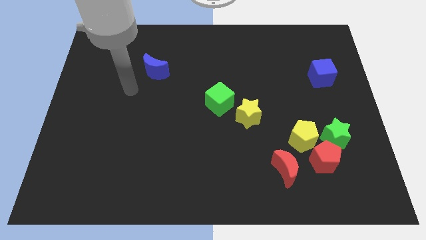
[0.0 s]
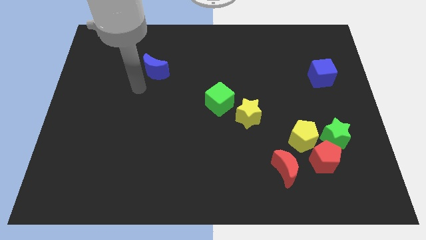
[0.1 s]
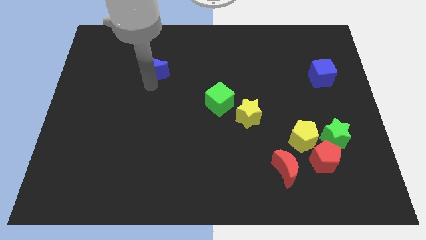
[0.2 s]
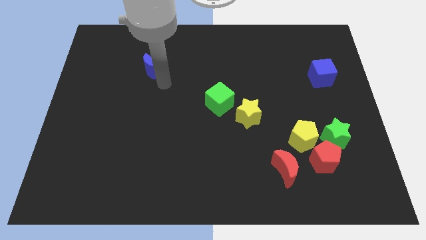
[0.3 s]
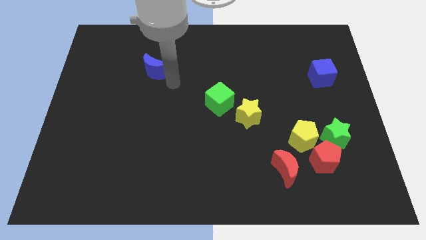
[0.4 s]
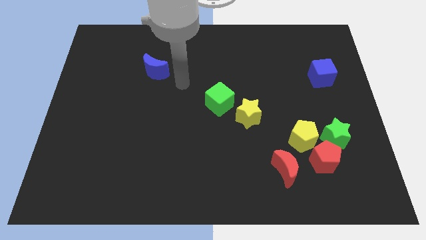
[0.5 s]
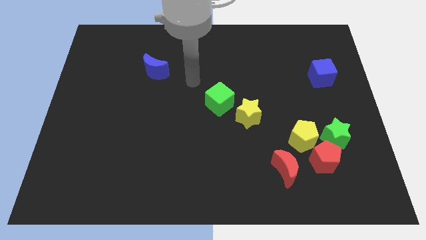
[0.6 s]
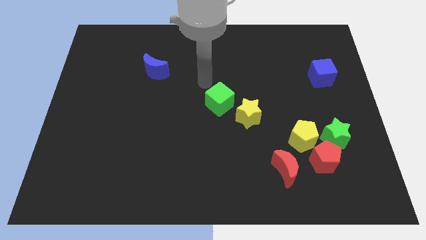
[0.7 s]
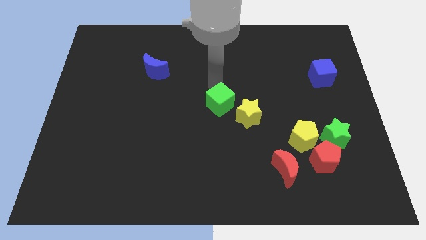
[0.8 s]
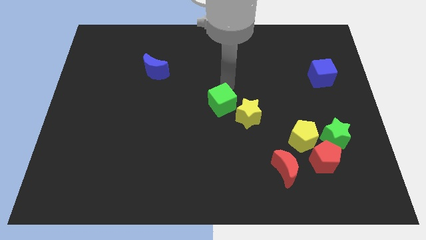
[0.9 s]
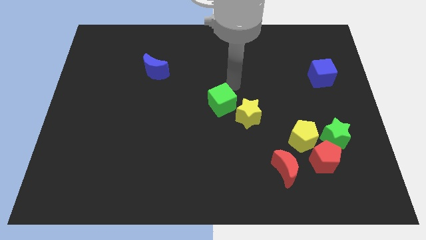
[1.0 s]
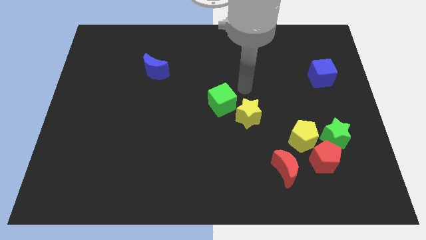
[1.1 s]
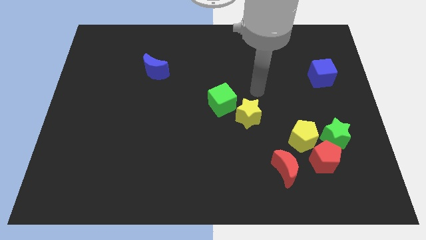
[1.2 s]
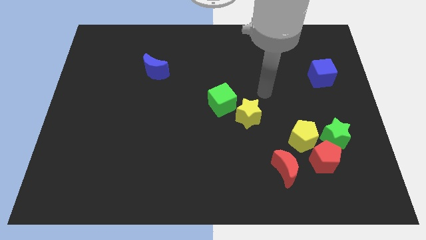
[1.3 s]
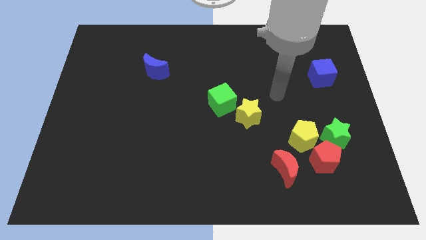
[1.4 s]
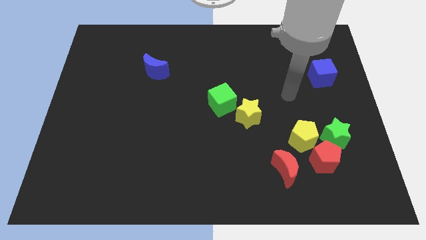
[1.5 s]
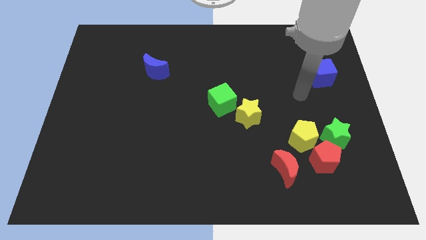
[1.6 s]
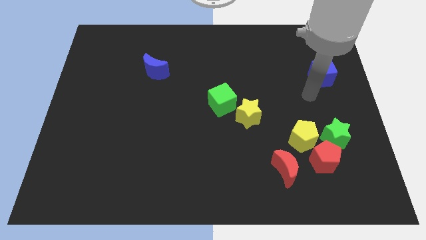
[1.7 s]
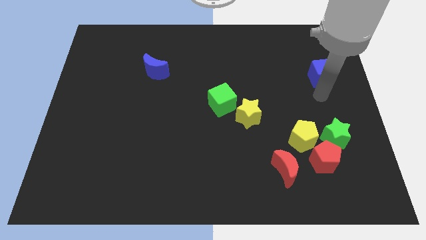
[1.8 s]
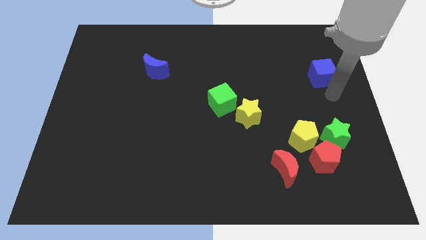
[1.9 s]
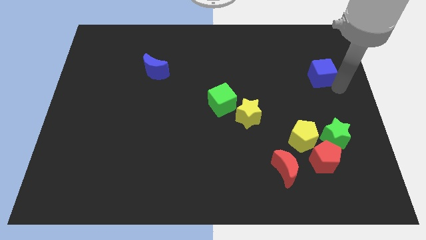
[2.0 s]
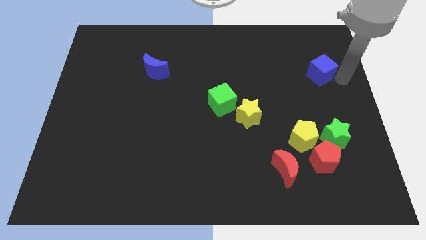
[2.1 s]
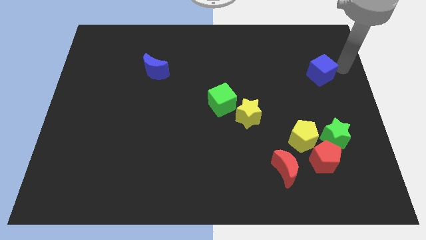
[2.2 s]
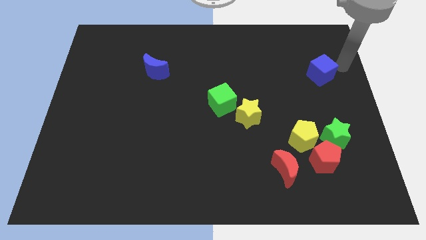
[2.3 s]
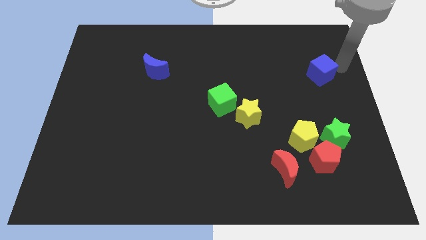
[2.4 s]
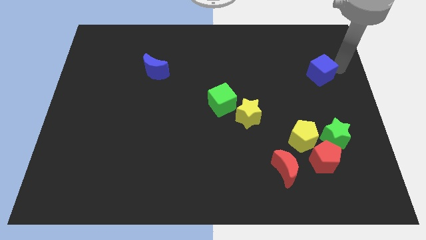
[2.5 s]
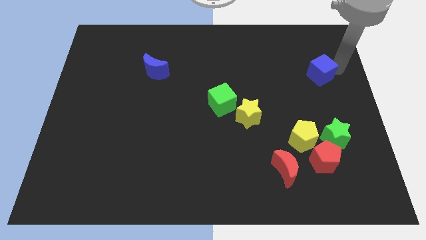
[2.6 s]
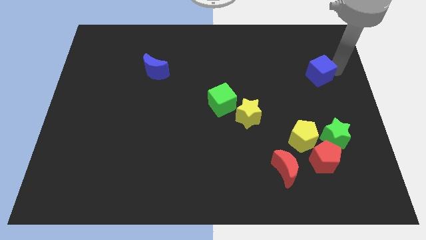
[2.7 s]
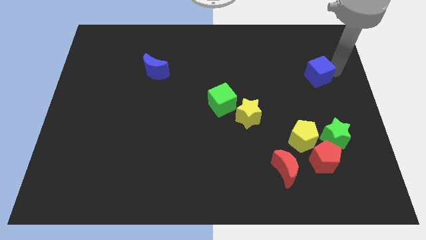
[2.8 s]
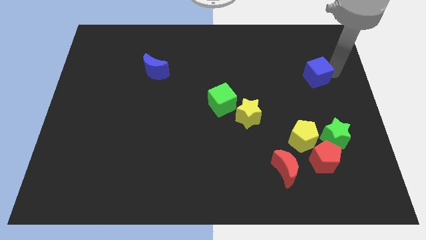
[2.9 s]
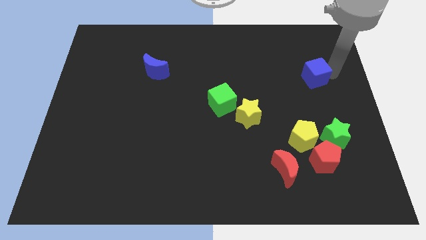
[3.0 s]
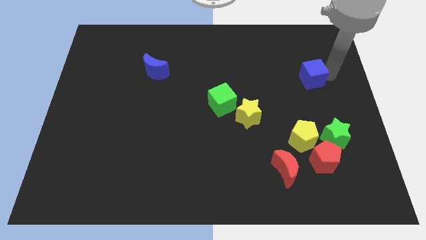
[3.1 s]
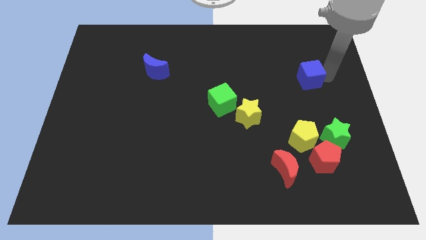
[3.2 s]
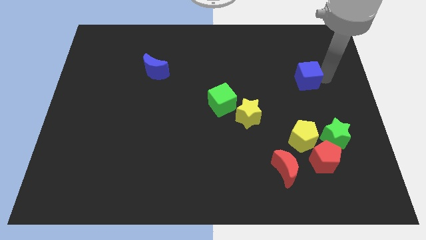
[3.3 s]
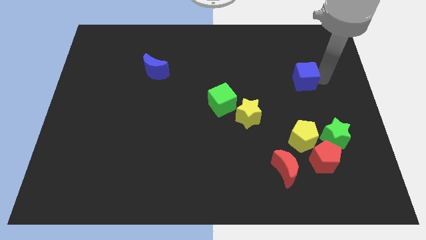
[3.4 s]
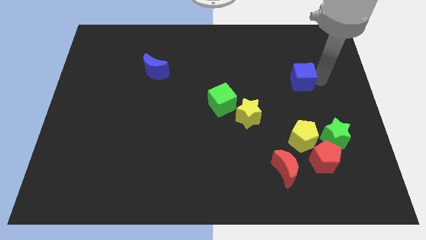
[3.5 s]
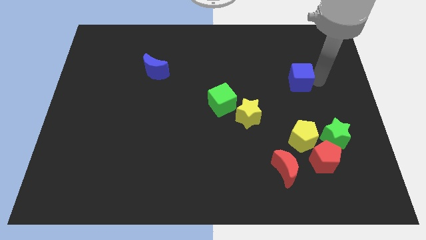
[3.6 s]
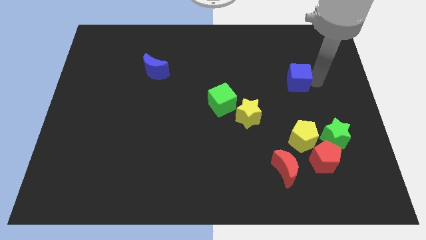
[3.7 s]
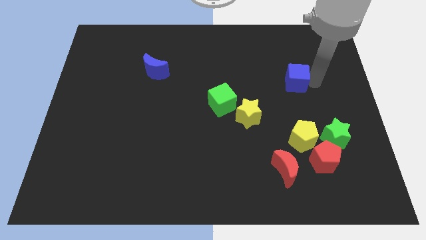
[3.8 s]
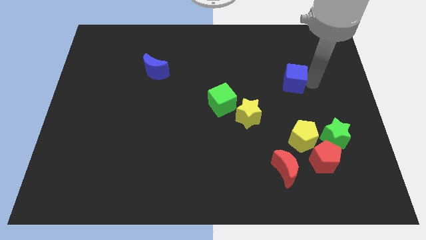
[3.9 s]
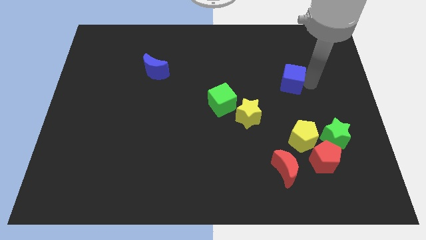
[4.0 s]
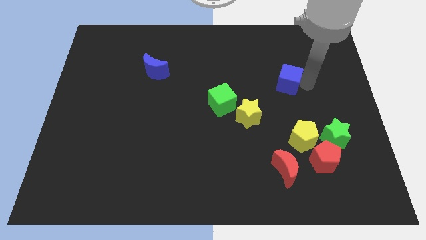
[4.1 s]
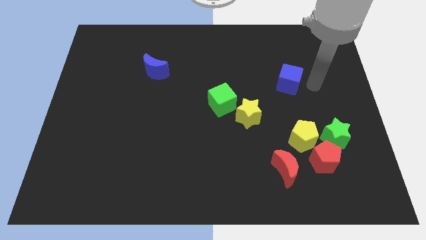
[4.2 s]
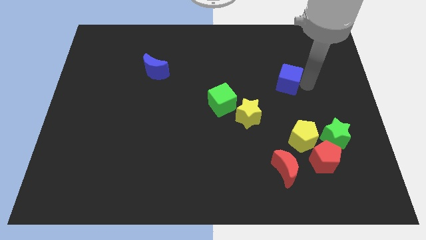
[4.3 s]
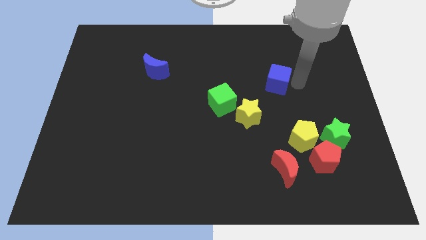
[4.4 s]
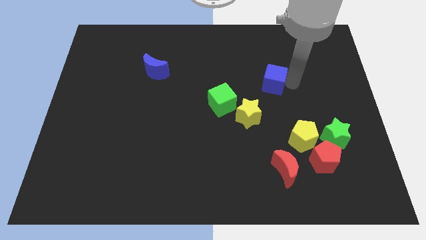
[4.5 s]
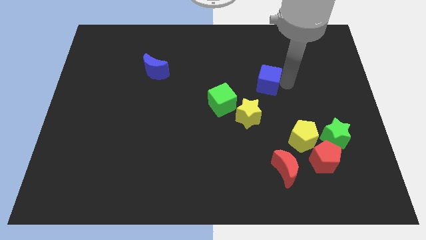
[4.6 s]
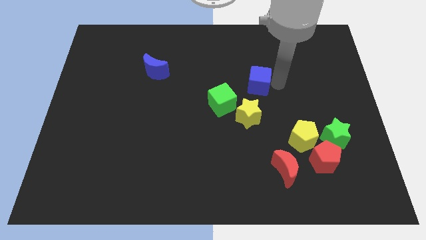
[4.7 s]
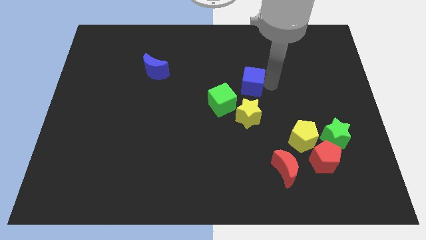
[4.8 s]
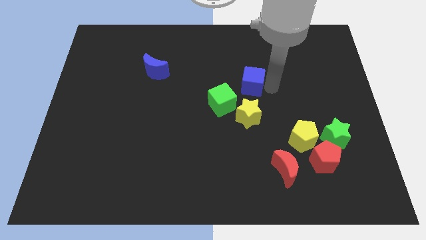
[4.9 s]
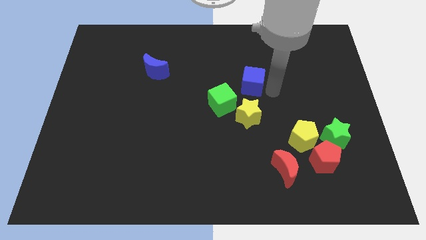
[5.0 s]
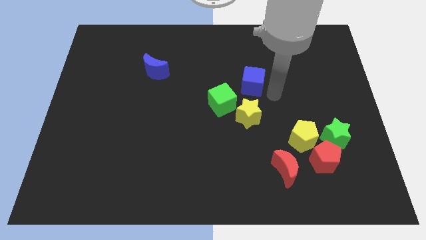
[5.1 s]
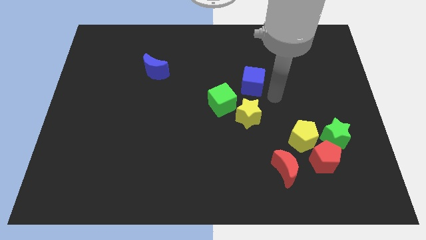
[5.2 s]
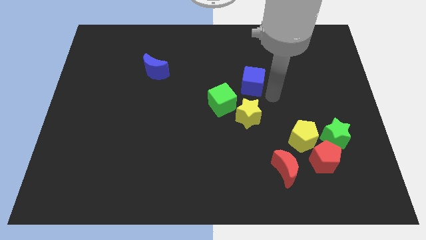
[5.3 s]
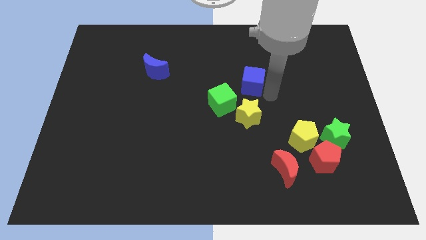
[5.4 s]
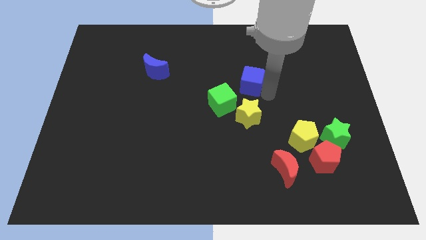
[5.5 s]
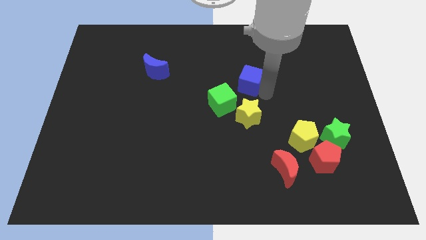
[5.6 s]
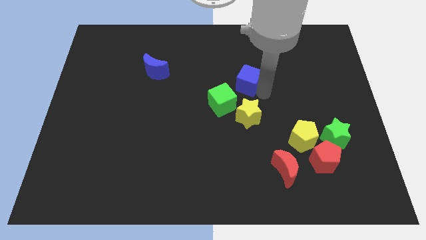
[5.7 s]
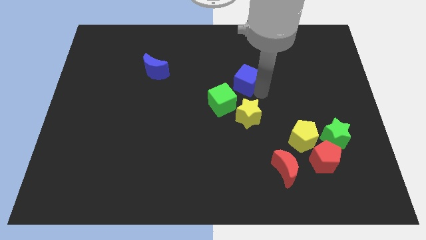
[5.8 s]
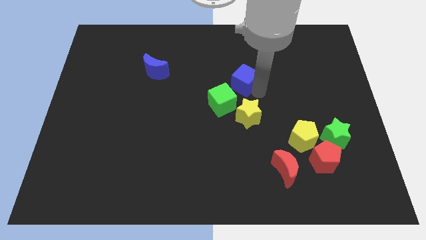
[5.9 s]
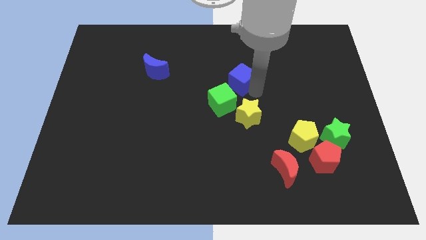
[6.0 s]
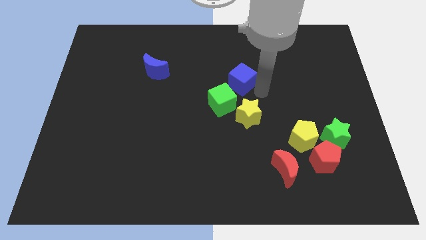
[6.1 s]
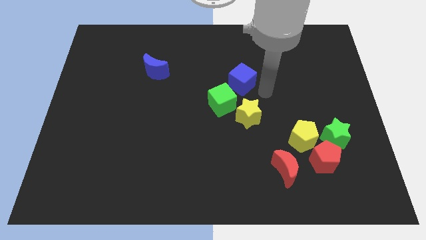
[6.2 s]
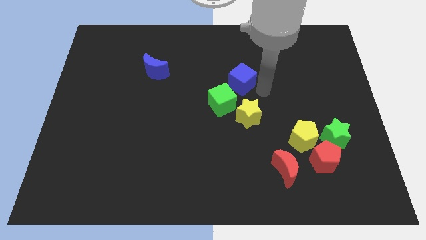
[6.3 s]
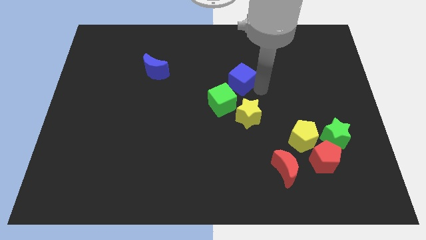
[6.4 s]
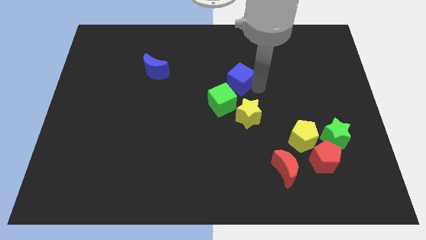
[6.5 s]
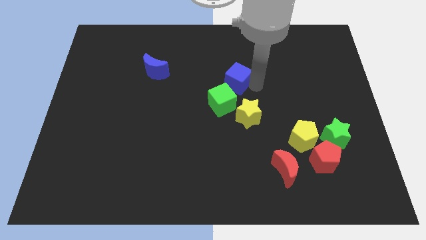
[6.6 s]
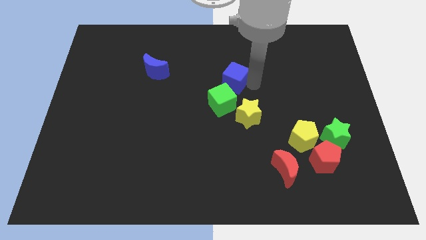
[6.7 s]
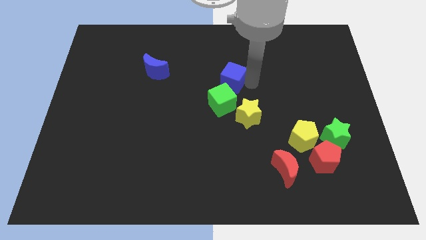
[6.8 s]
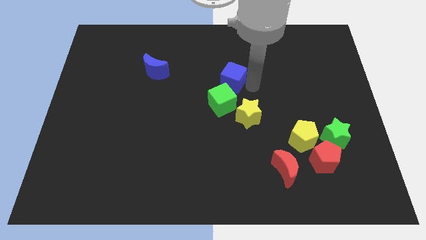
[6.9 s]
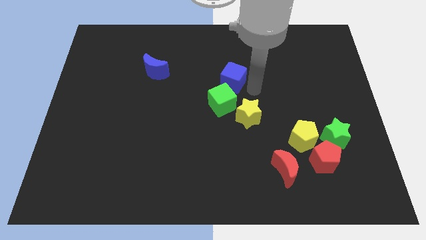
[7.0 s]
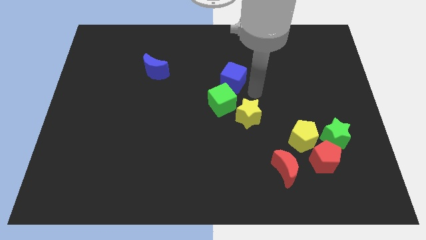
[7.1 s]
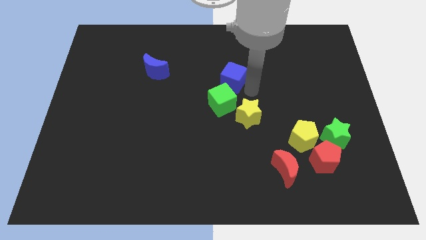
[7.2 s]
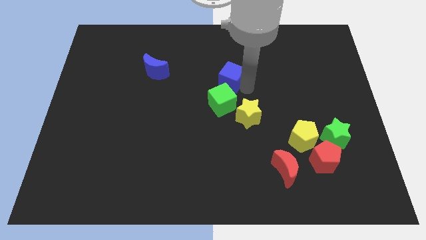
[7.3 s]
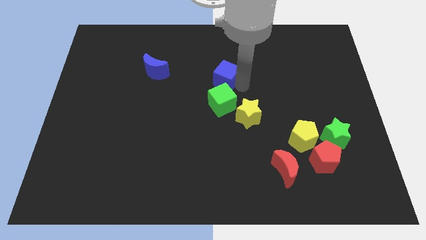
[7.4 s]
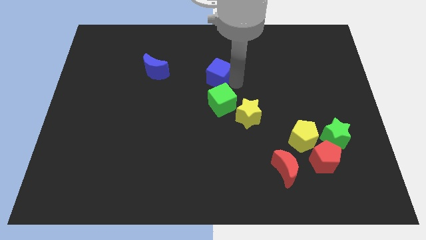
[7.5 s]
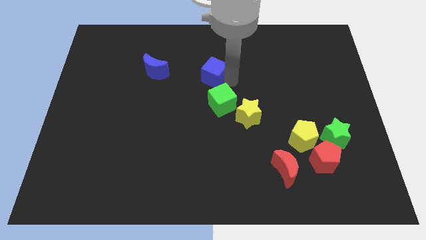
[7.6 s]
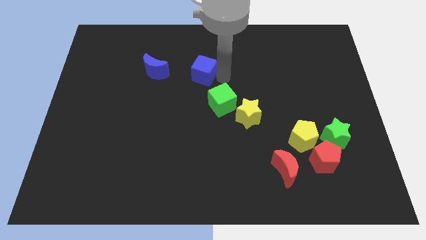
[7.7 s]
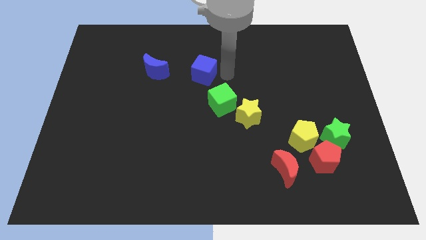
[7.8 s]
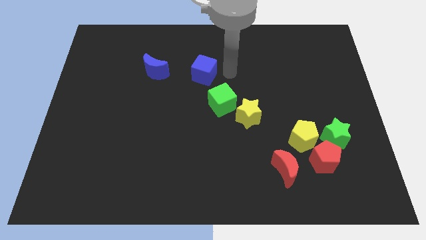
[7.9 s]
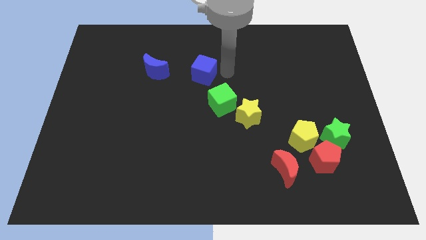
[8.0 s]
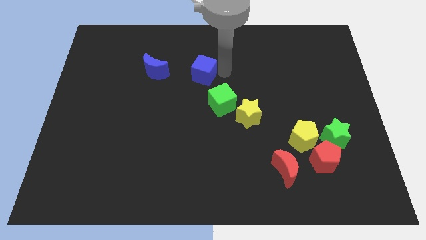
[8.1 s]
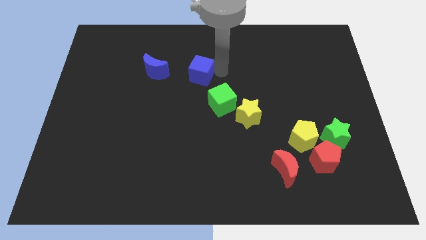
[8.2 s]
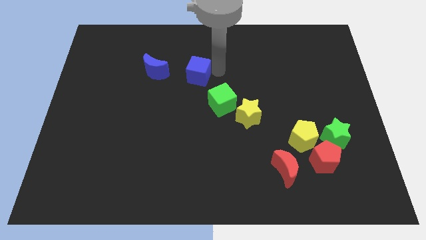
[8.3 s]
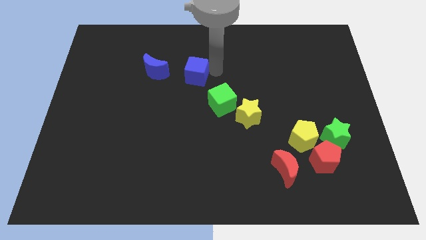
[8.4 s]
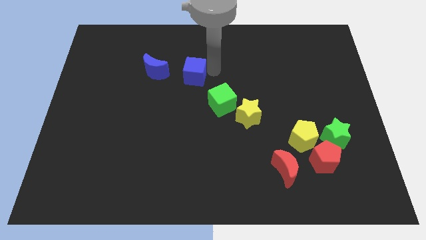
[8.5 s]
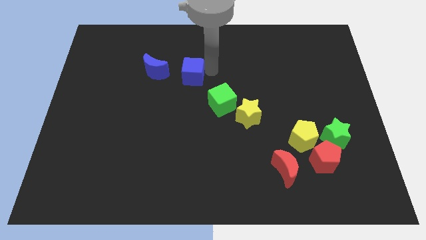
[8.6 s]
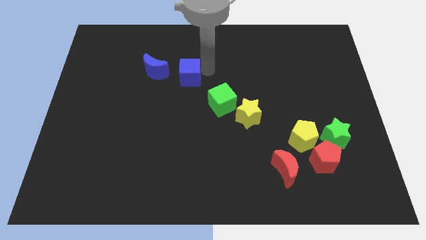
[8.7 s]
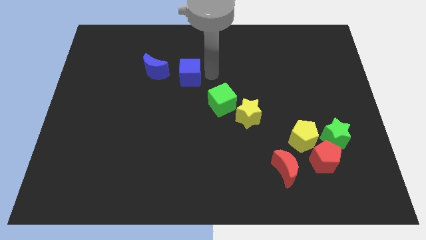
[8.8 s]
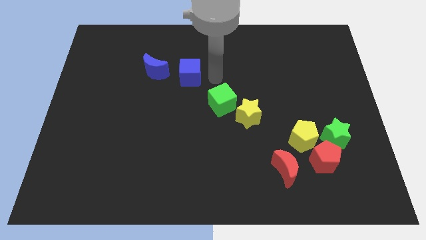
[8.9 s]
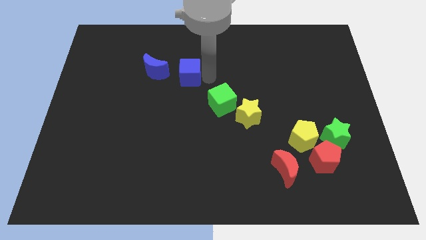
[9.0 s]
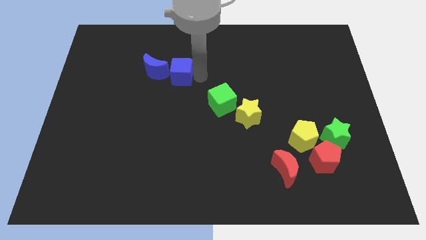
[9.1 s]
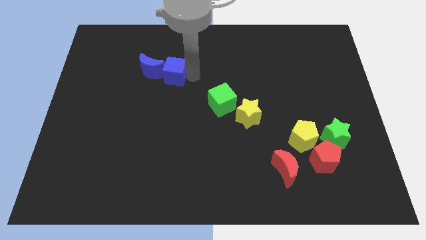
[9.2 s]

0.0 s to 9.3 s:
move the blue cube next to the blue moon
